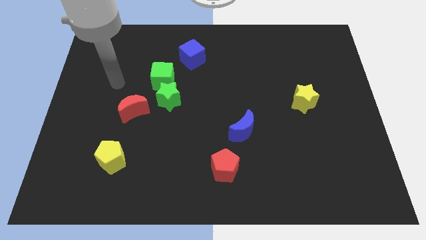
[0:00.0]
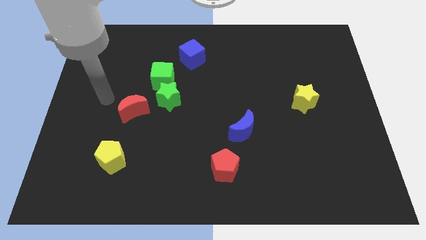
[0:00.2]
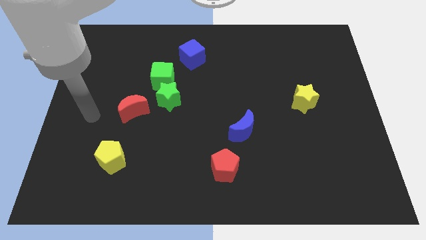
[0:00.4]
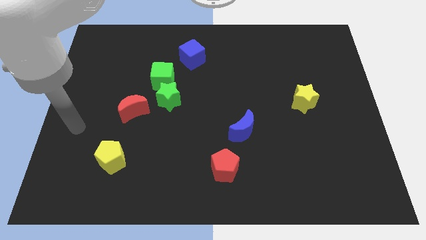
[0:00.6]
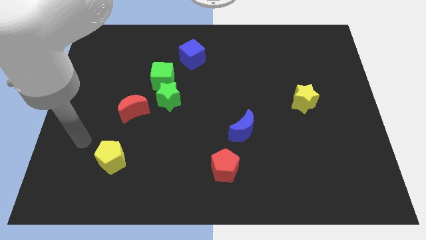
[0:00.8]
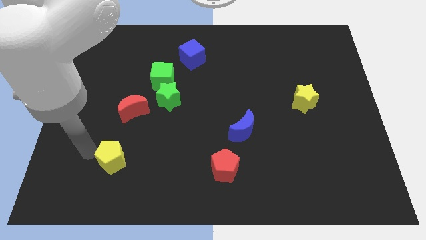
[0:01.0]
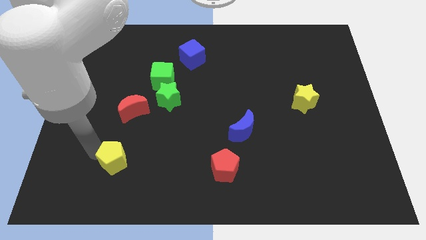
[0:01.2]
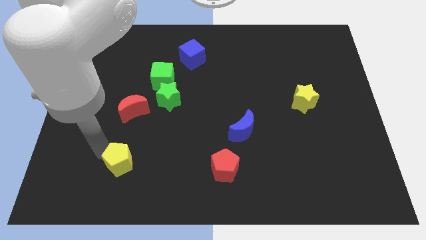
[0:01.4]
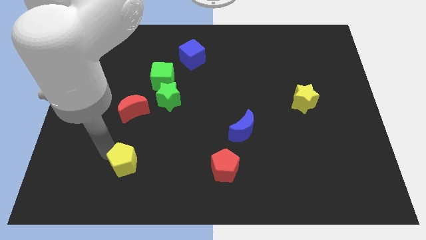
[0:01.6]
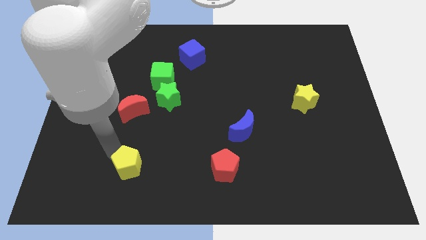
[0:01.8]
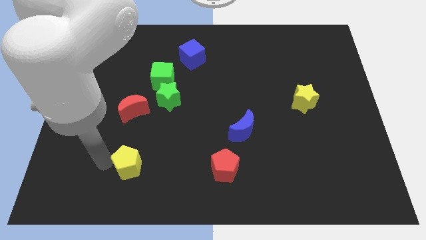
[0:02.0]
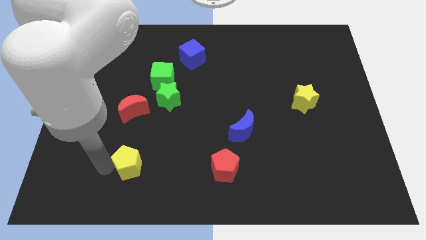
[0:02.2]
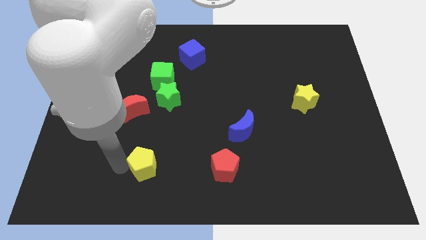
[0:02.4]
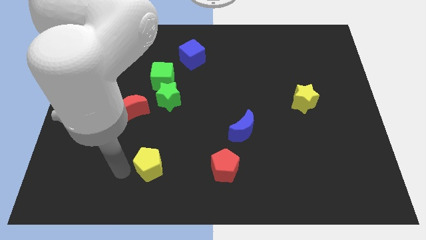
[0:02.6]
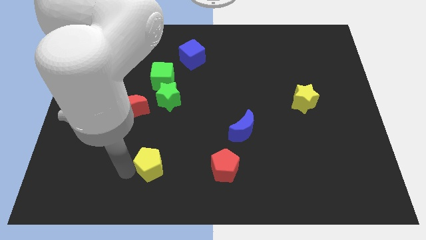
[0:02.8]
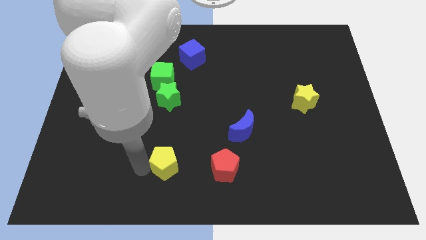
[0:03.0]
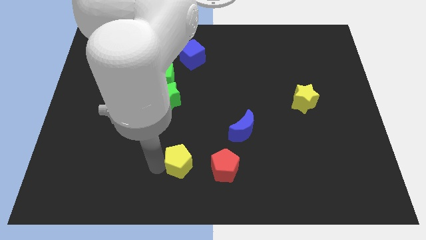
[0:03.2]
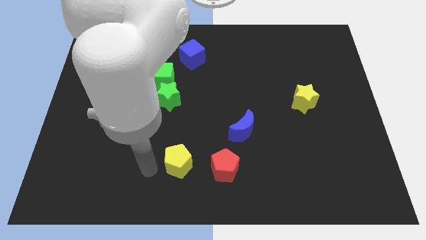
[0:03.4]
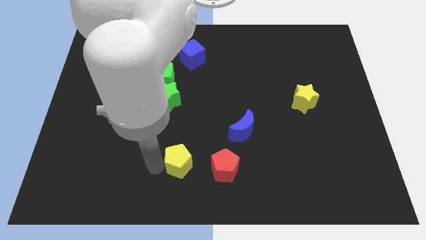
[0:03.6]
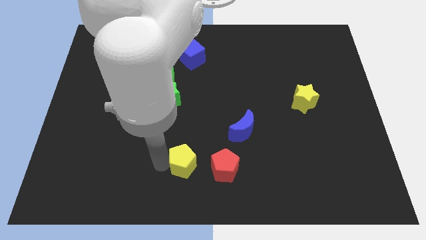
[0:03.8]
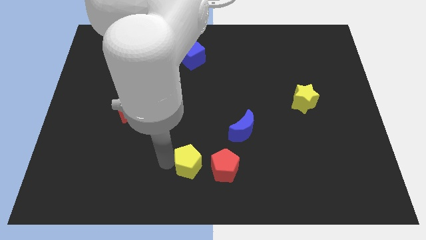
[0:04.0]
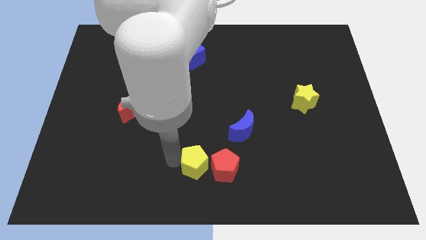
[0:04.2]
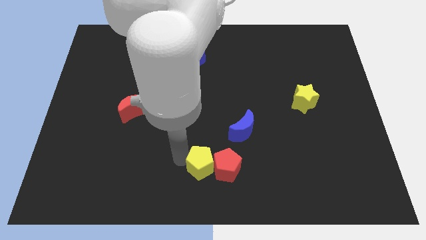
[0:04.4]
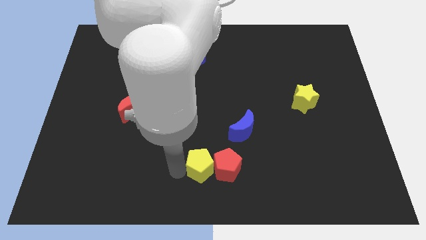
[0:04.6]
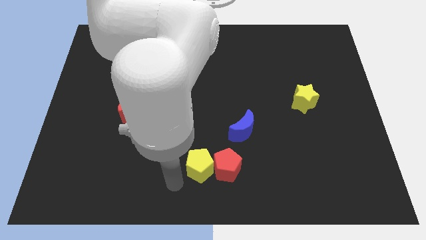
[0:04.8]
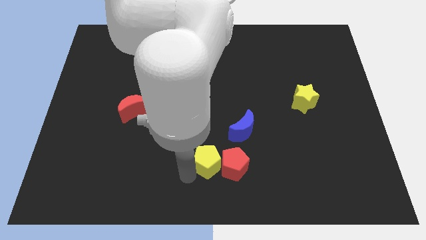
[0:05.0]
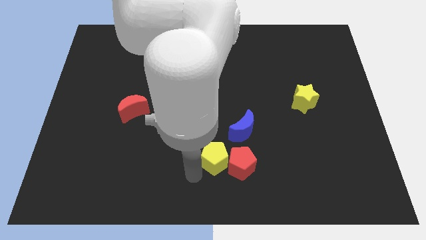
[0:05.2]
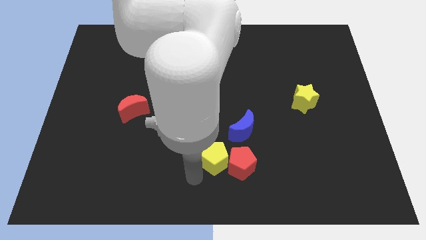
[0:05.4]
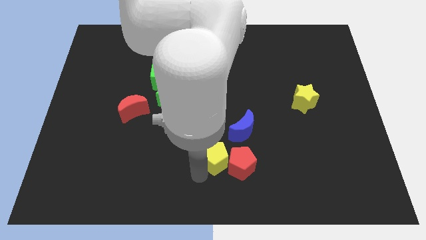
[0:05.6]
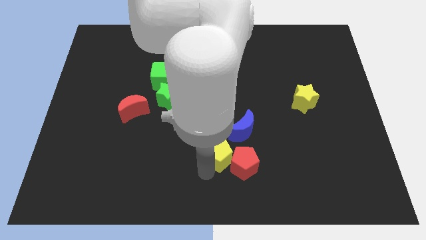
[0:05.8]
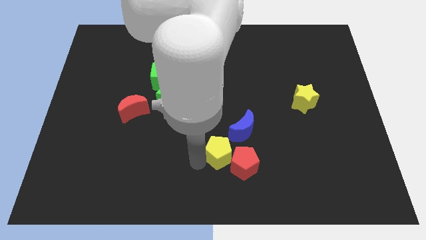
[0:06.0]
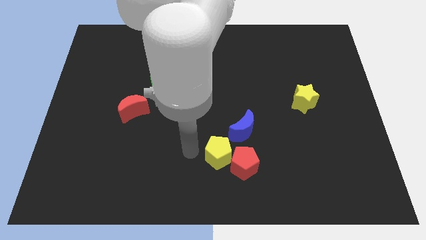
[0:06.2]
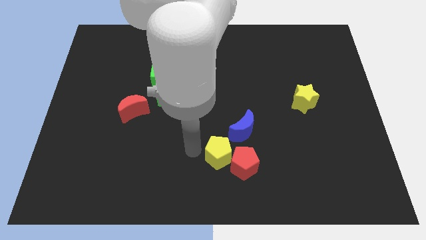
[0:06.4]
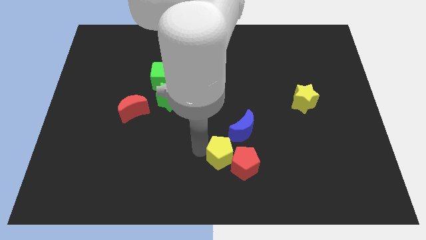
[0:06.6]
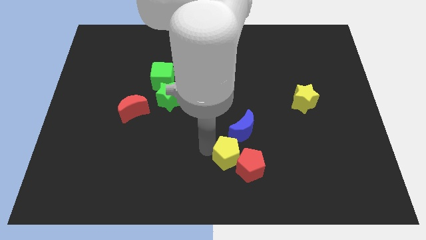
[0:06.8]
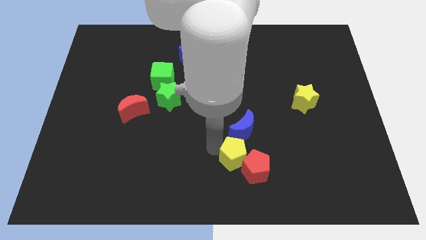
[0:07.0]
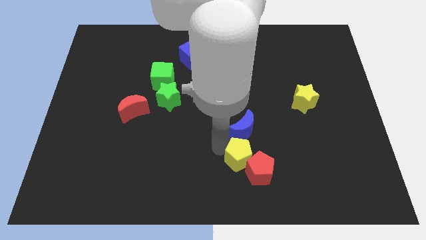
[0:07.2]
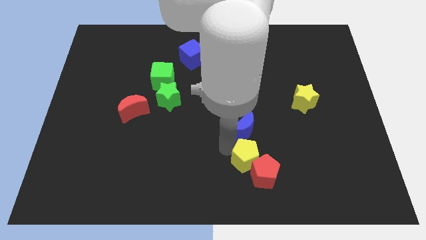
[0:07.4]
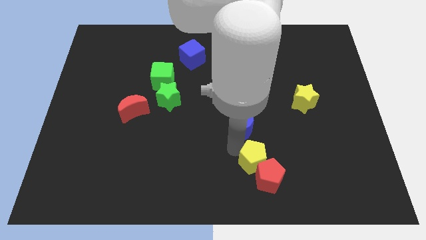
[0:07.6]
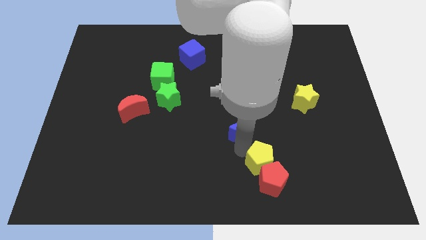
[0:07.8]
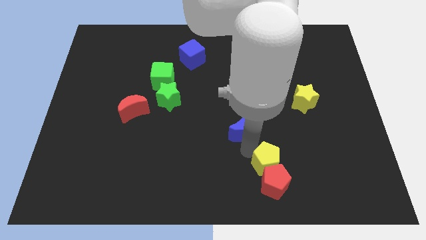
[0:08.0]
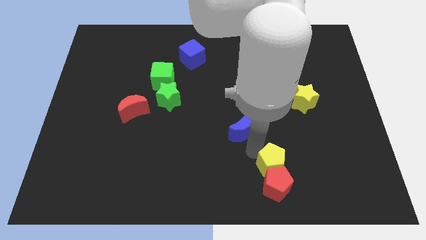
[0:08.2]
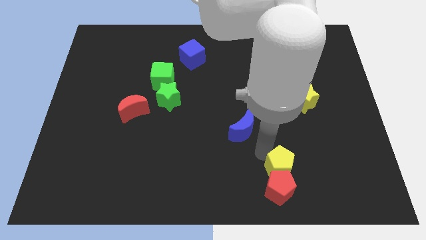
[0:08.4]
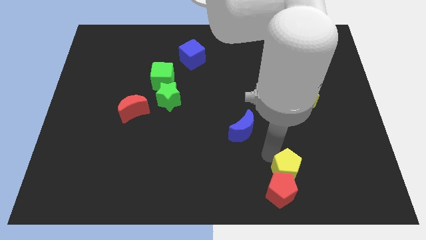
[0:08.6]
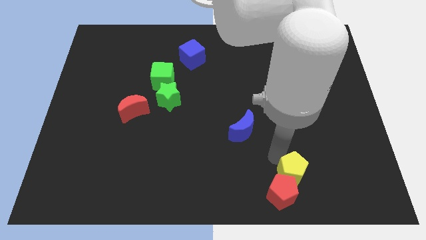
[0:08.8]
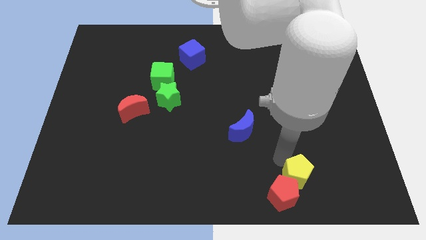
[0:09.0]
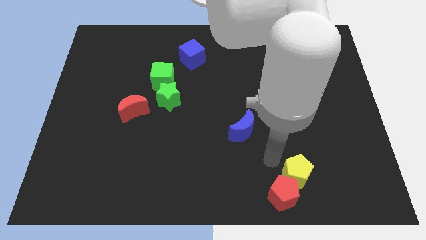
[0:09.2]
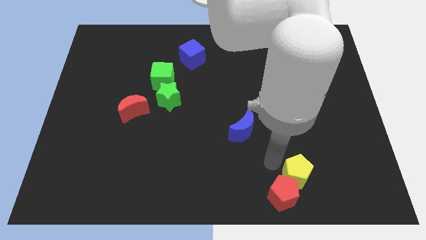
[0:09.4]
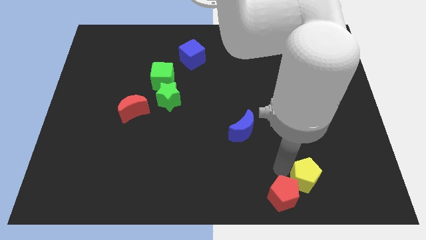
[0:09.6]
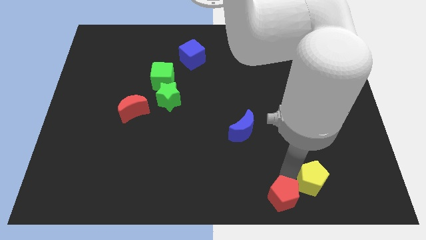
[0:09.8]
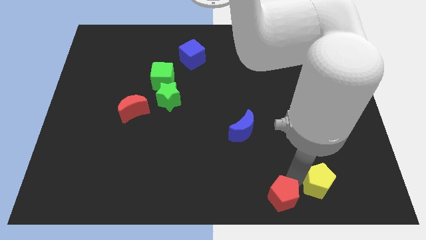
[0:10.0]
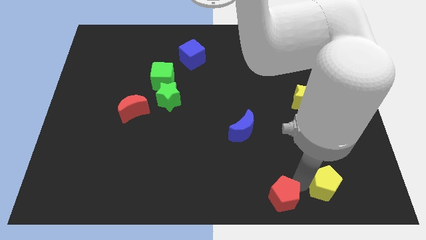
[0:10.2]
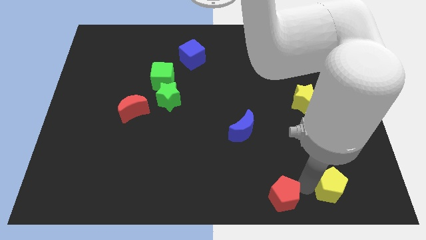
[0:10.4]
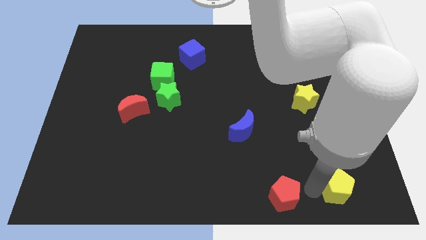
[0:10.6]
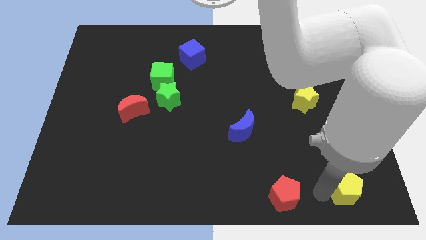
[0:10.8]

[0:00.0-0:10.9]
slide the yellow pentagon to the bottom right corner

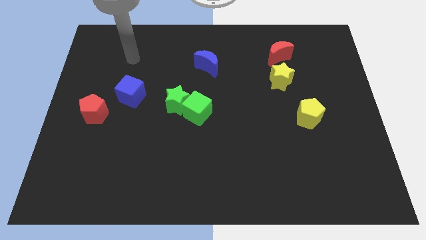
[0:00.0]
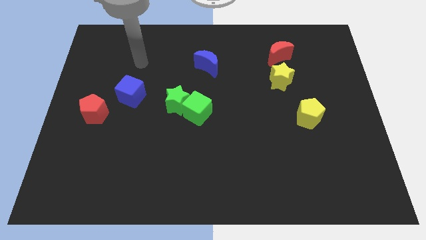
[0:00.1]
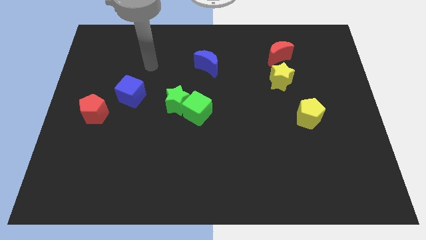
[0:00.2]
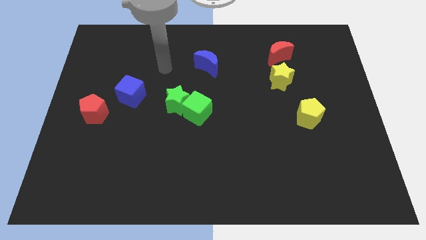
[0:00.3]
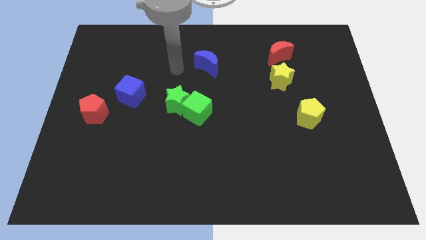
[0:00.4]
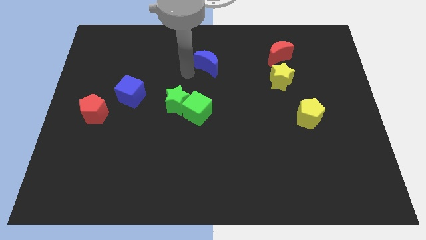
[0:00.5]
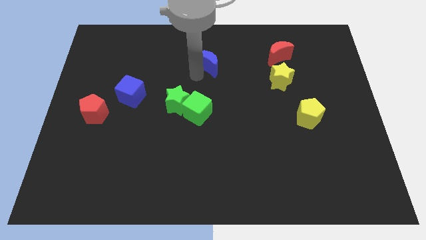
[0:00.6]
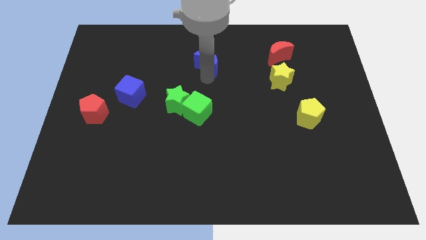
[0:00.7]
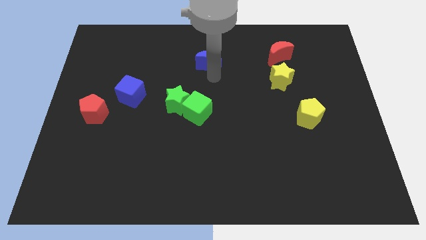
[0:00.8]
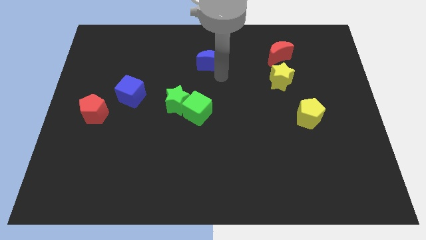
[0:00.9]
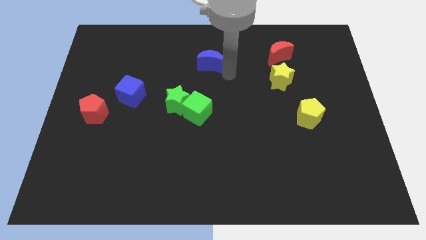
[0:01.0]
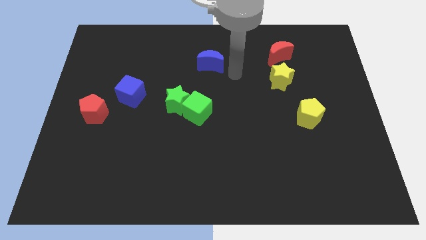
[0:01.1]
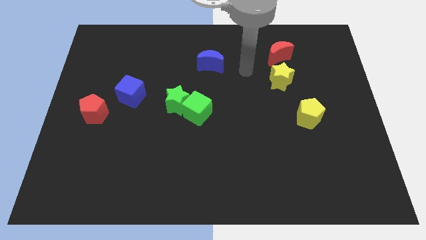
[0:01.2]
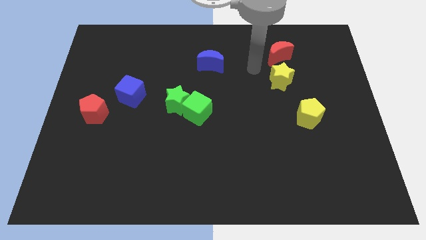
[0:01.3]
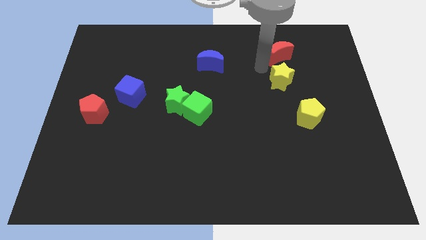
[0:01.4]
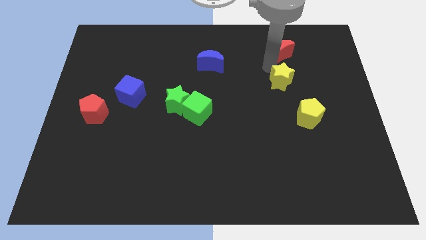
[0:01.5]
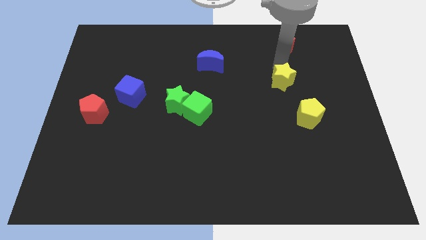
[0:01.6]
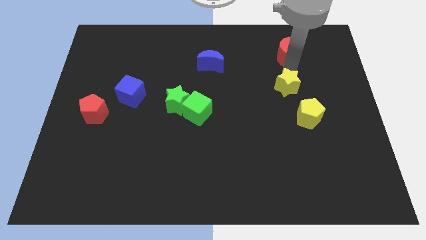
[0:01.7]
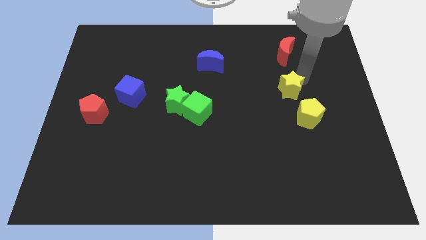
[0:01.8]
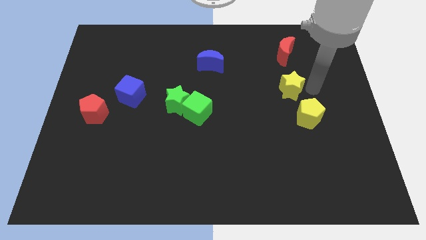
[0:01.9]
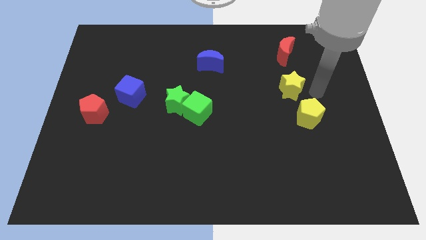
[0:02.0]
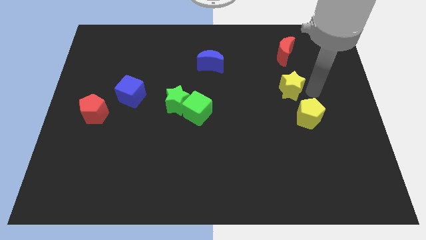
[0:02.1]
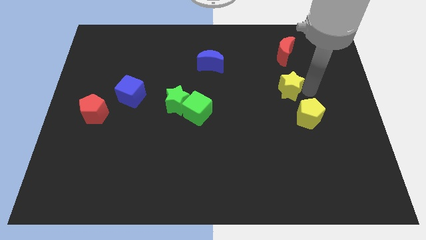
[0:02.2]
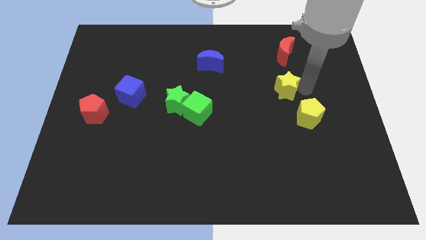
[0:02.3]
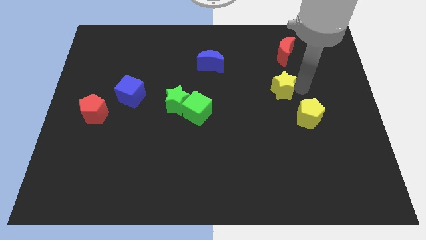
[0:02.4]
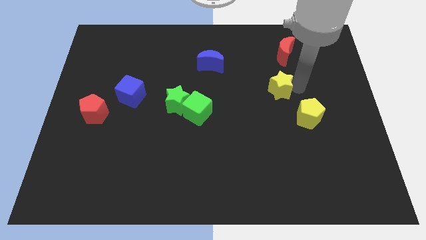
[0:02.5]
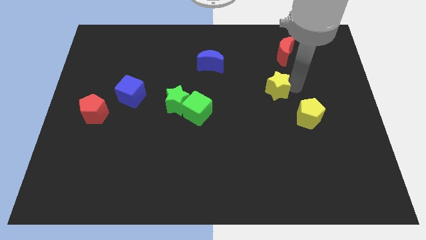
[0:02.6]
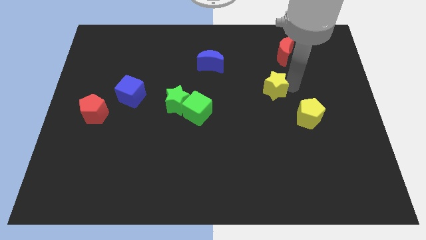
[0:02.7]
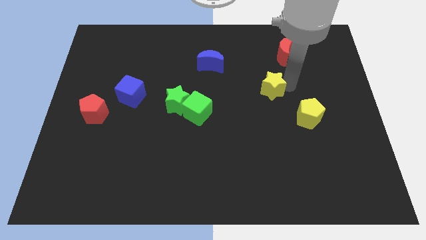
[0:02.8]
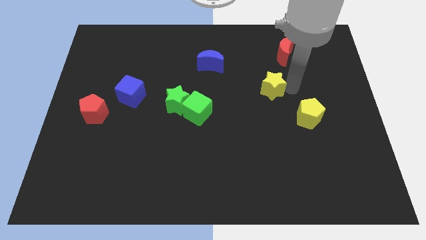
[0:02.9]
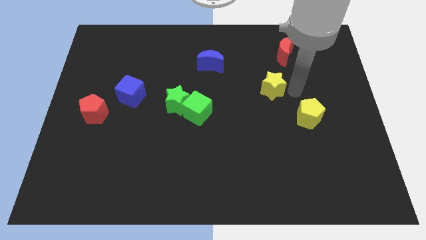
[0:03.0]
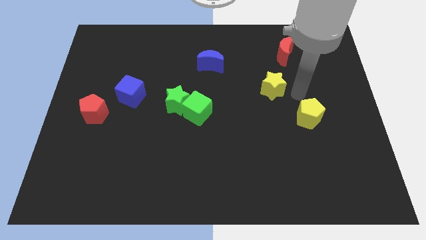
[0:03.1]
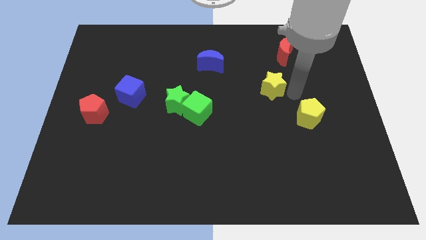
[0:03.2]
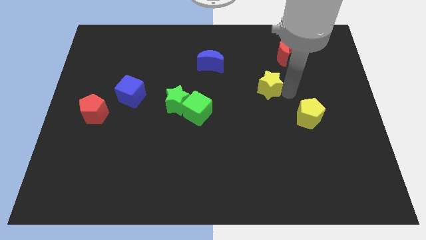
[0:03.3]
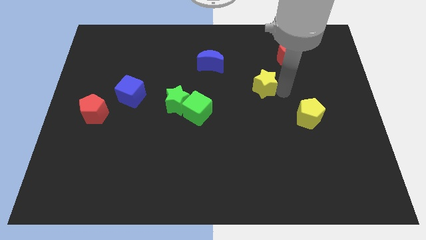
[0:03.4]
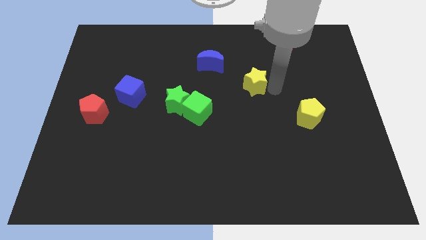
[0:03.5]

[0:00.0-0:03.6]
put the yellow star to the middle
